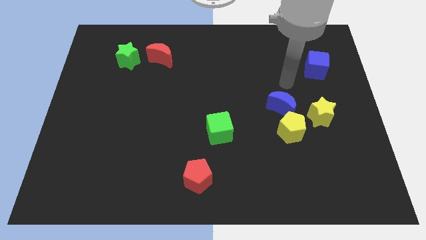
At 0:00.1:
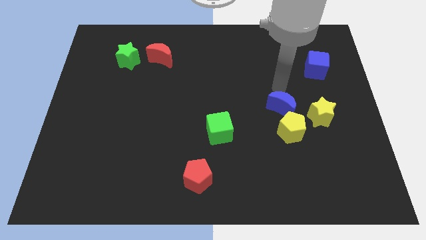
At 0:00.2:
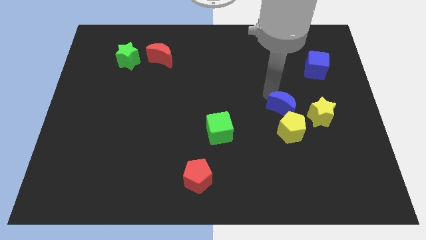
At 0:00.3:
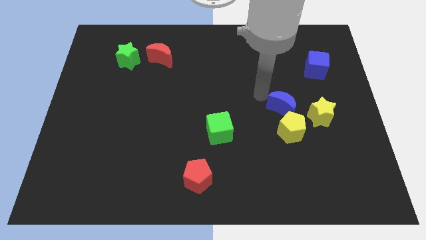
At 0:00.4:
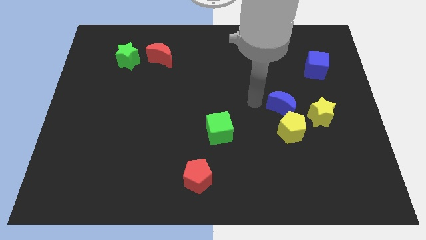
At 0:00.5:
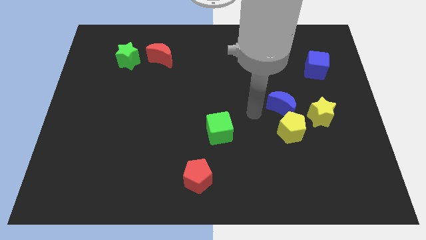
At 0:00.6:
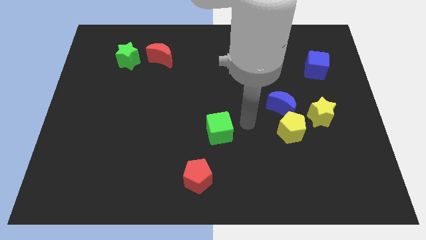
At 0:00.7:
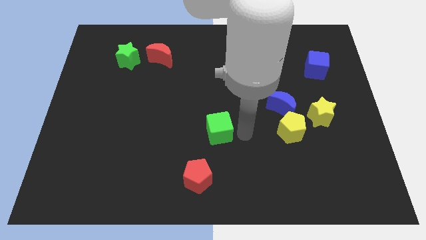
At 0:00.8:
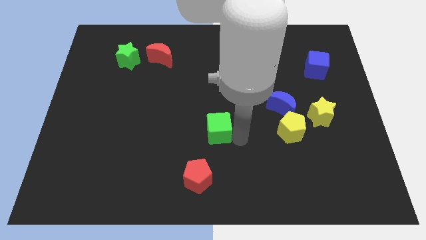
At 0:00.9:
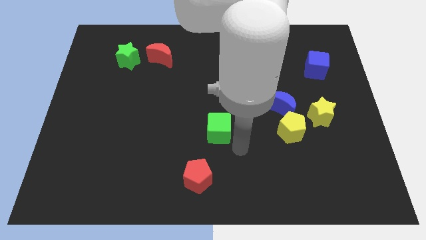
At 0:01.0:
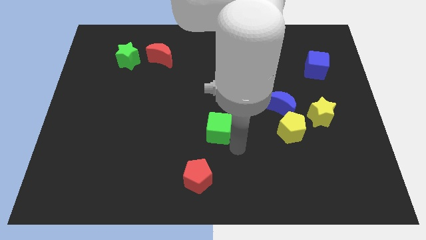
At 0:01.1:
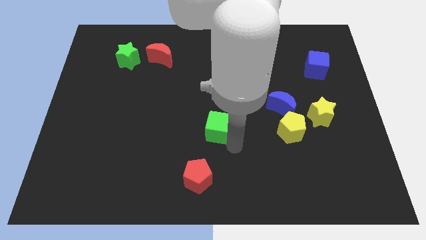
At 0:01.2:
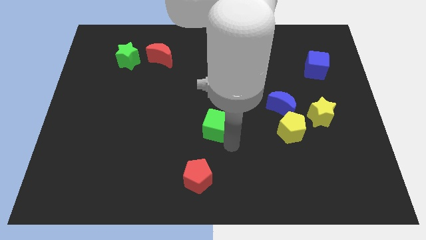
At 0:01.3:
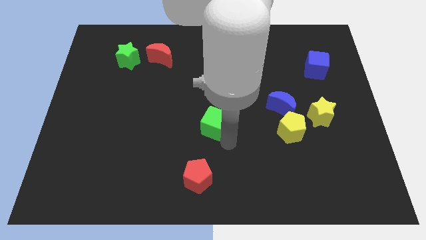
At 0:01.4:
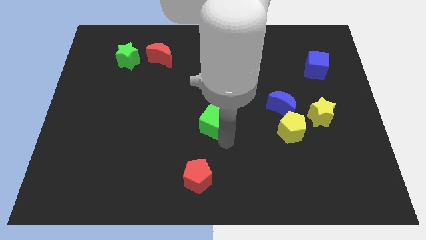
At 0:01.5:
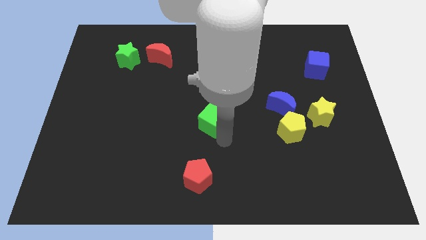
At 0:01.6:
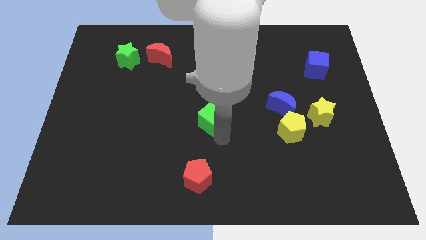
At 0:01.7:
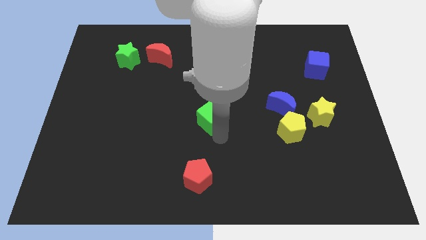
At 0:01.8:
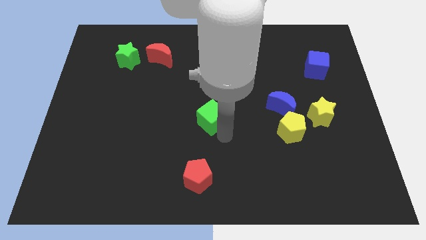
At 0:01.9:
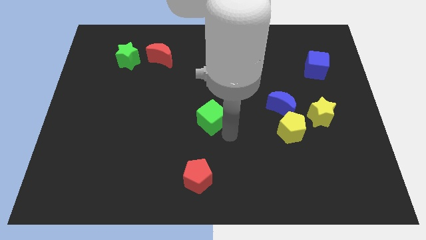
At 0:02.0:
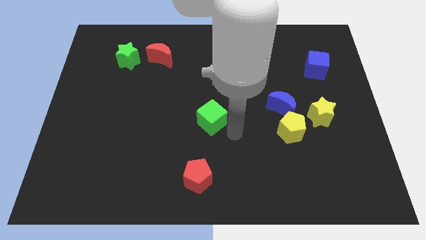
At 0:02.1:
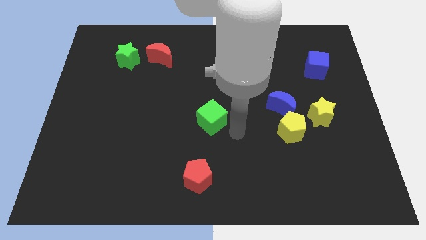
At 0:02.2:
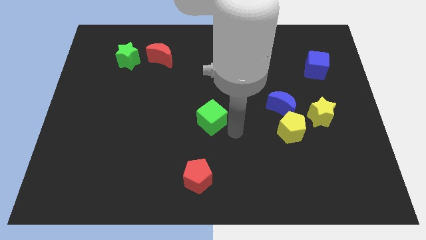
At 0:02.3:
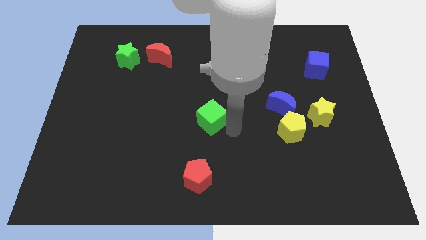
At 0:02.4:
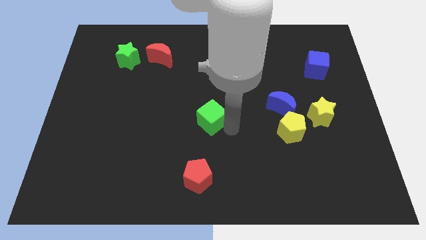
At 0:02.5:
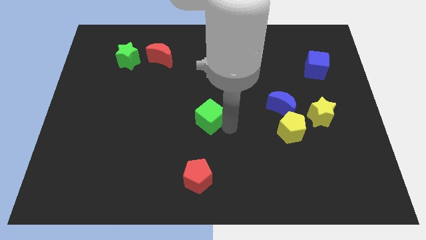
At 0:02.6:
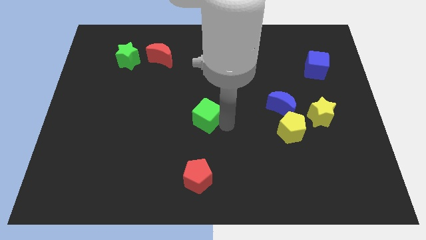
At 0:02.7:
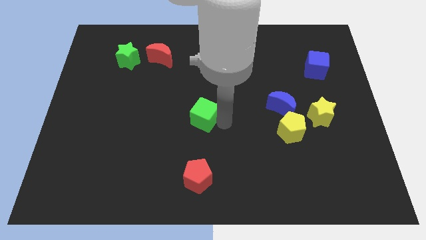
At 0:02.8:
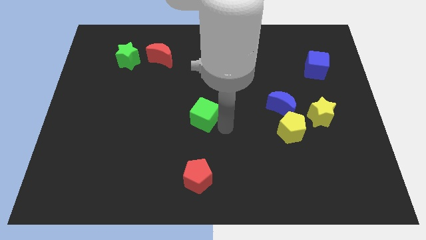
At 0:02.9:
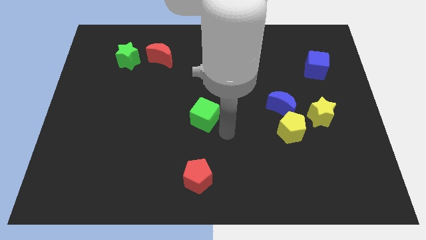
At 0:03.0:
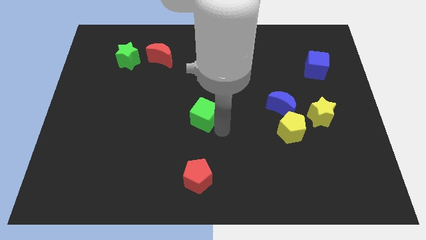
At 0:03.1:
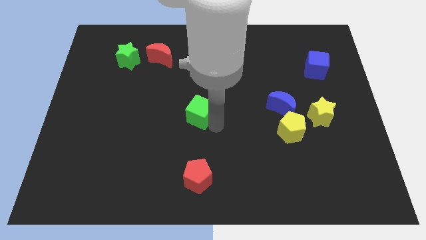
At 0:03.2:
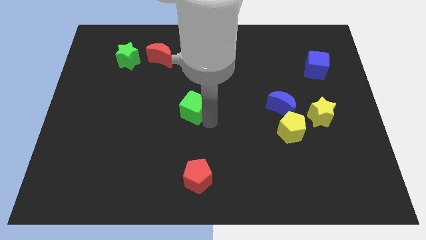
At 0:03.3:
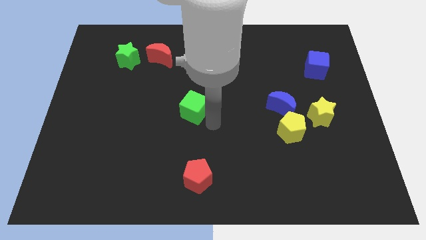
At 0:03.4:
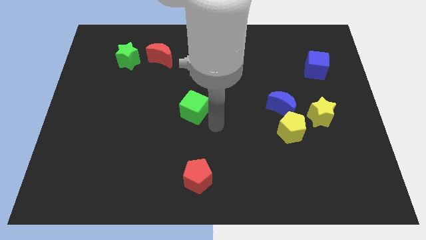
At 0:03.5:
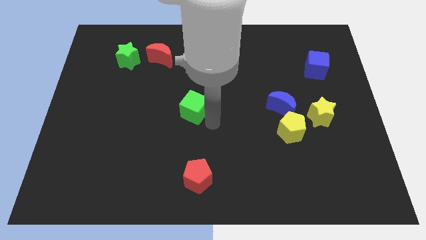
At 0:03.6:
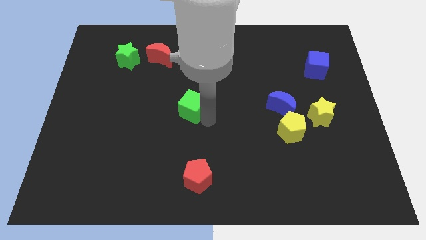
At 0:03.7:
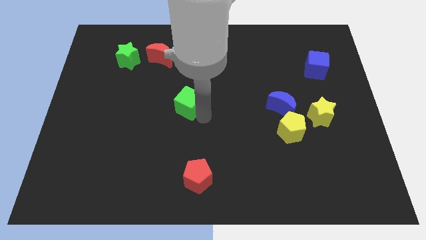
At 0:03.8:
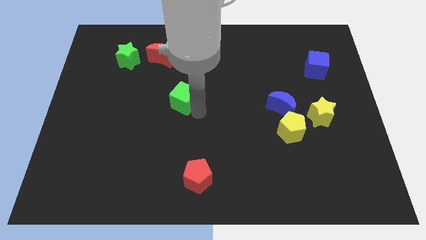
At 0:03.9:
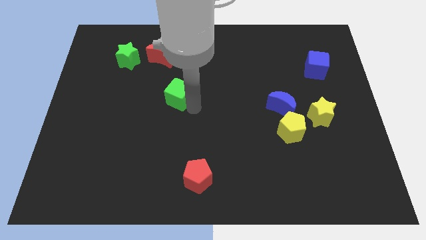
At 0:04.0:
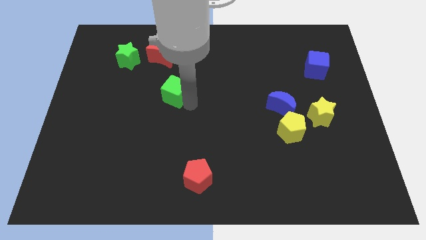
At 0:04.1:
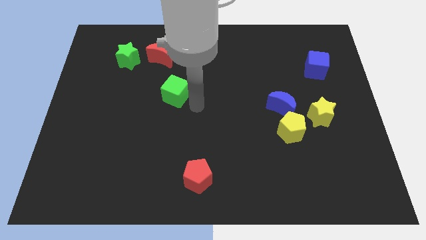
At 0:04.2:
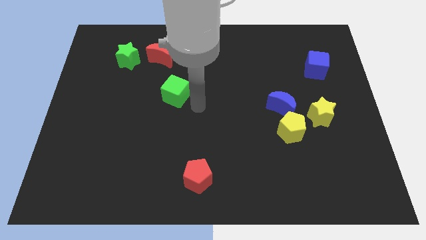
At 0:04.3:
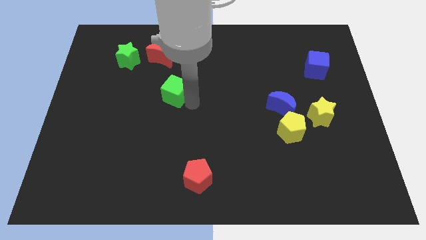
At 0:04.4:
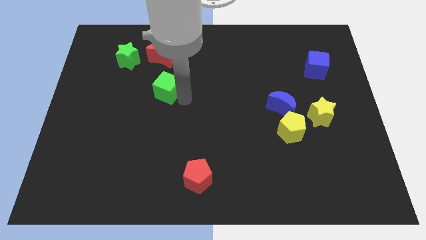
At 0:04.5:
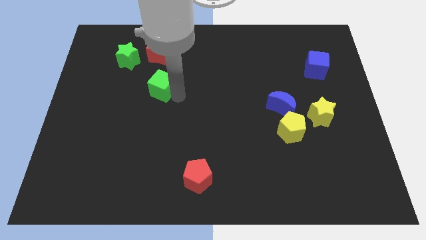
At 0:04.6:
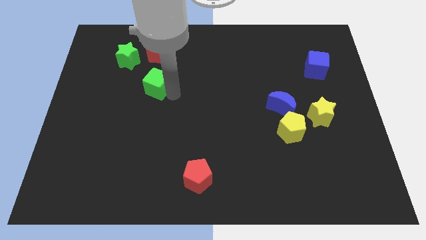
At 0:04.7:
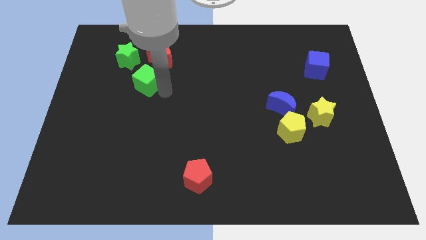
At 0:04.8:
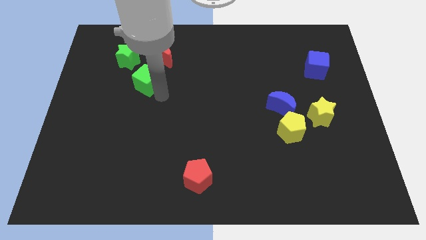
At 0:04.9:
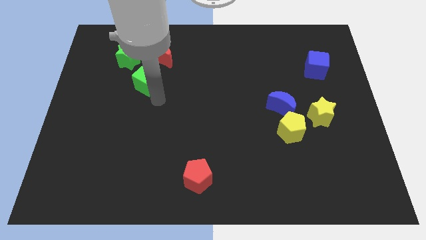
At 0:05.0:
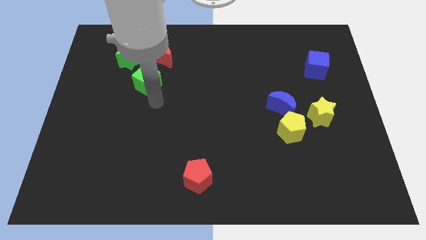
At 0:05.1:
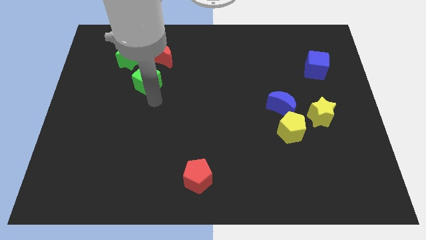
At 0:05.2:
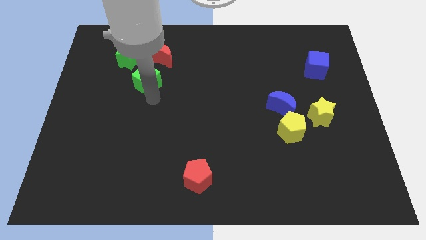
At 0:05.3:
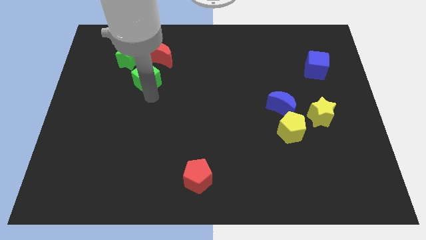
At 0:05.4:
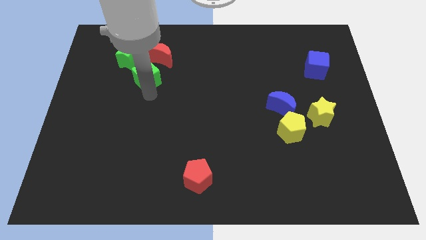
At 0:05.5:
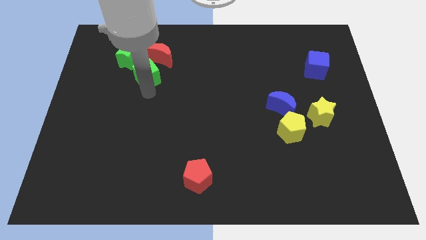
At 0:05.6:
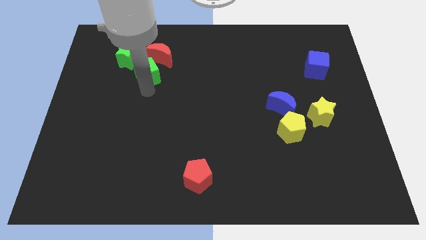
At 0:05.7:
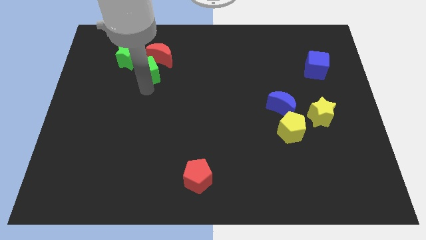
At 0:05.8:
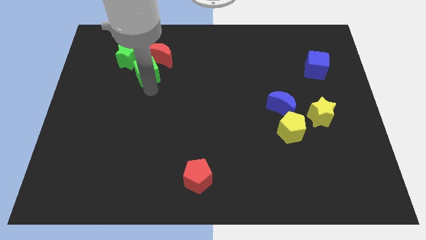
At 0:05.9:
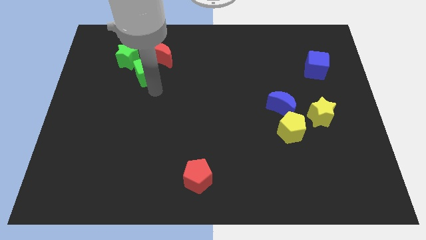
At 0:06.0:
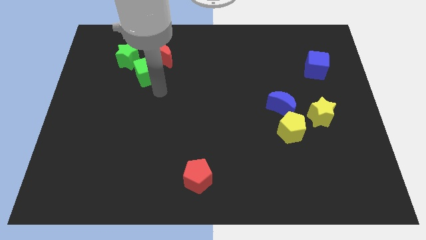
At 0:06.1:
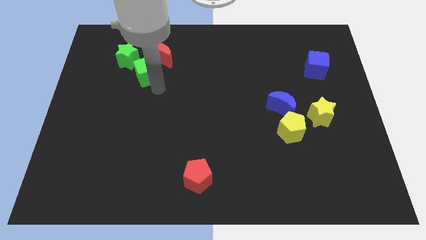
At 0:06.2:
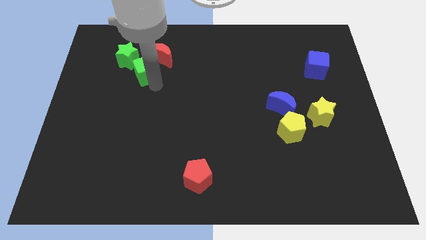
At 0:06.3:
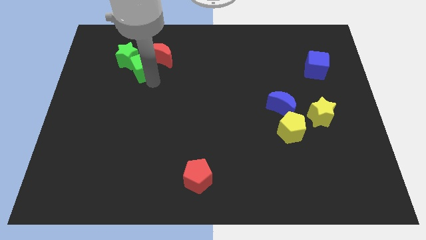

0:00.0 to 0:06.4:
slide the green cube towards the green star

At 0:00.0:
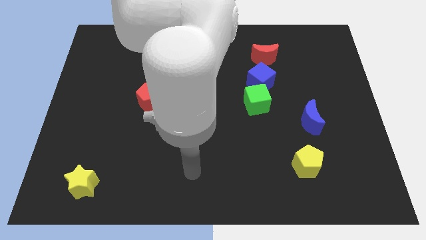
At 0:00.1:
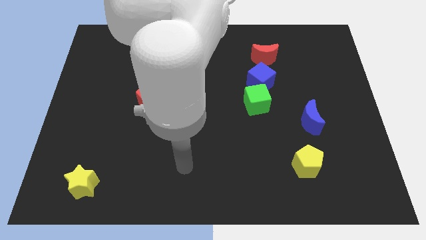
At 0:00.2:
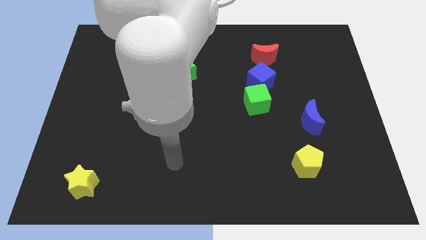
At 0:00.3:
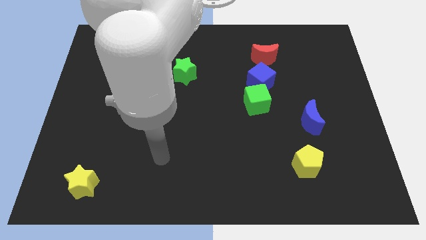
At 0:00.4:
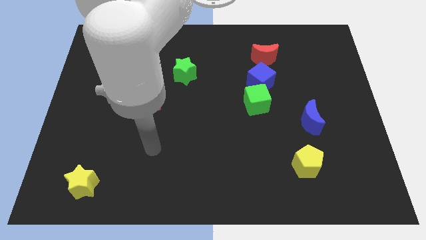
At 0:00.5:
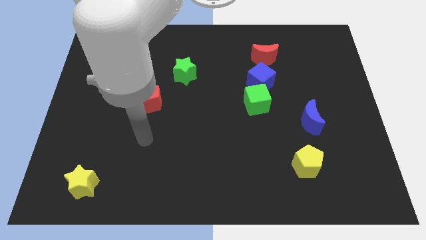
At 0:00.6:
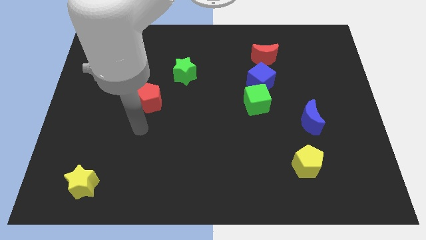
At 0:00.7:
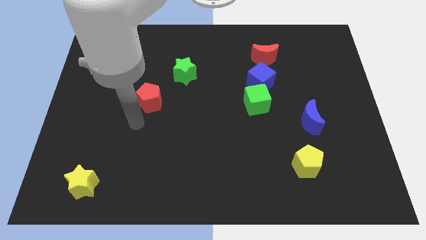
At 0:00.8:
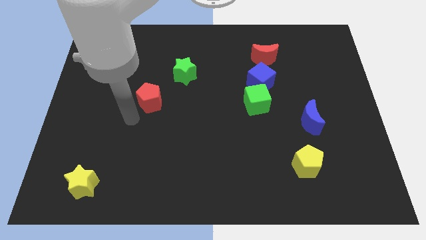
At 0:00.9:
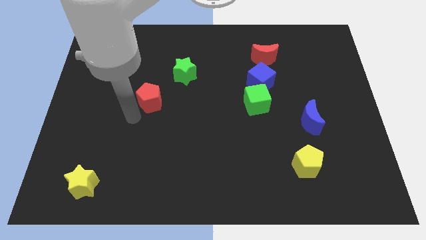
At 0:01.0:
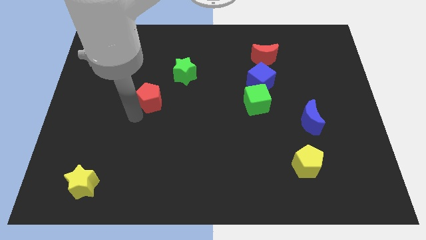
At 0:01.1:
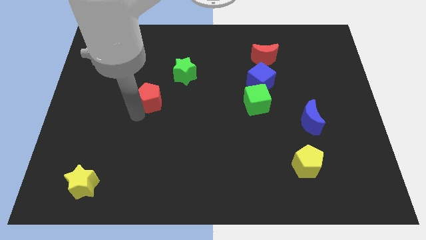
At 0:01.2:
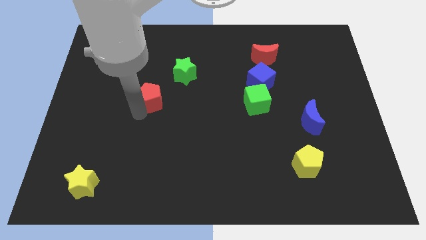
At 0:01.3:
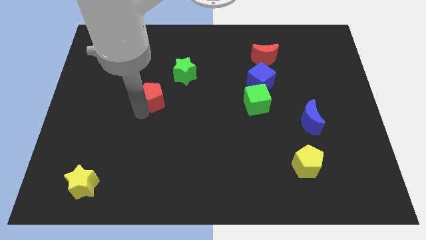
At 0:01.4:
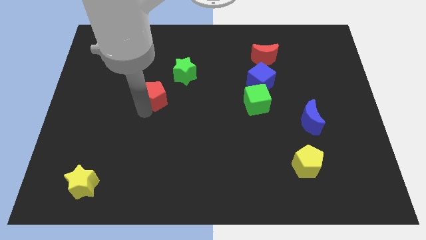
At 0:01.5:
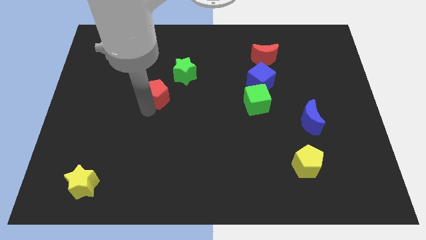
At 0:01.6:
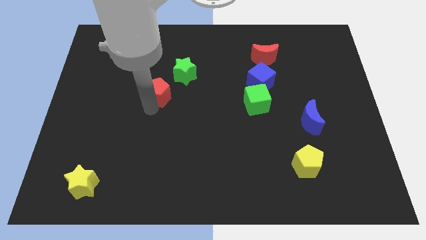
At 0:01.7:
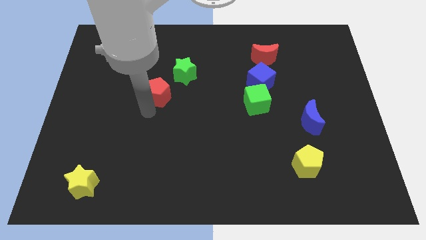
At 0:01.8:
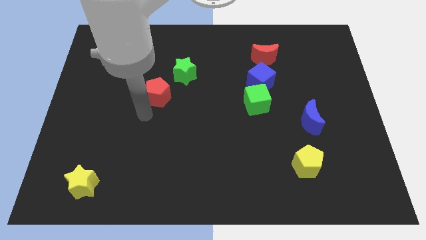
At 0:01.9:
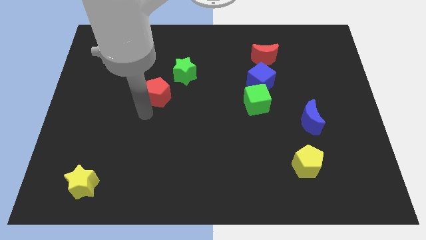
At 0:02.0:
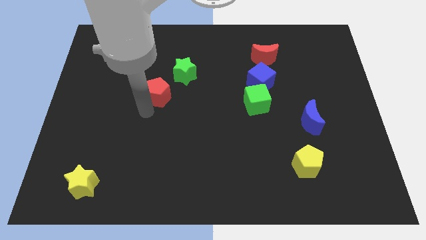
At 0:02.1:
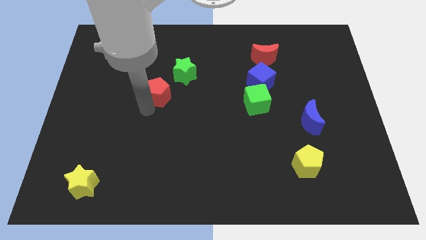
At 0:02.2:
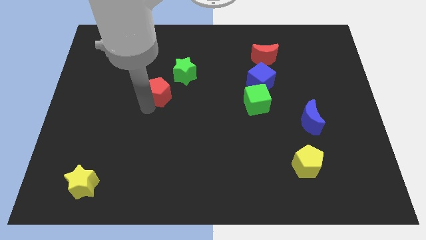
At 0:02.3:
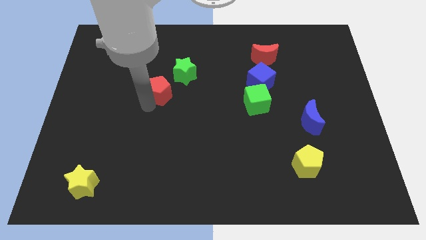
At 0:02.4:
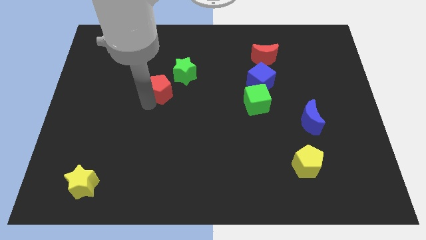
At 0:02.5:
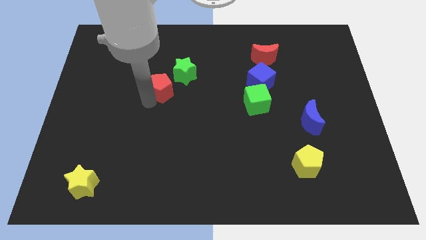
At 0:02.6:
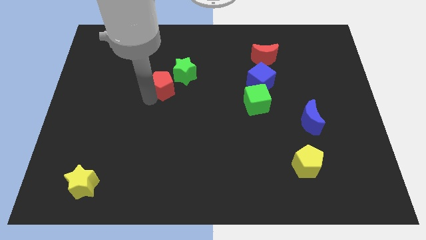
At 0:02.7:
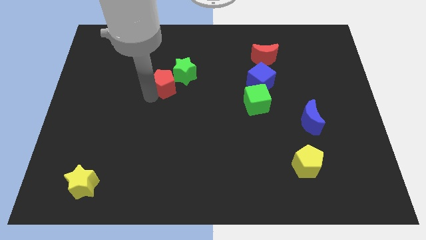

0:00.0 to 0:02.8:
move the red pentagon close to the green star
